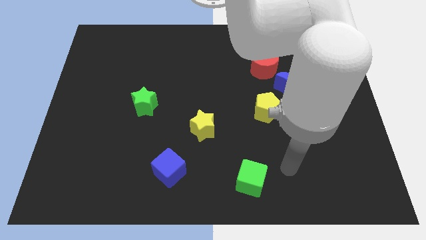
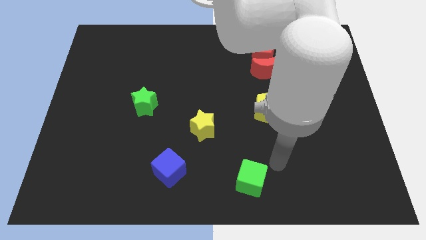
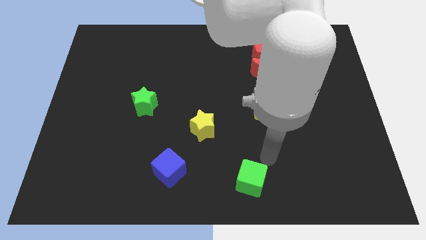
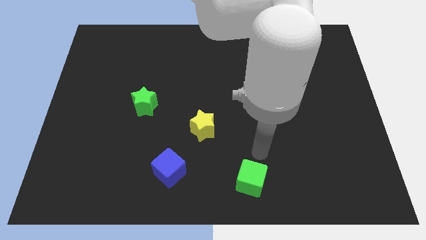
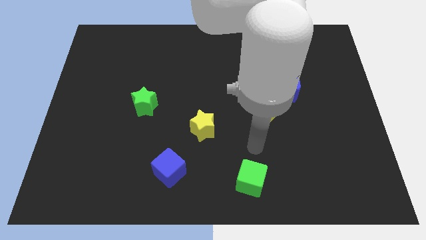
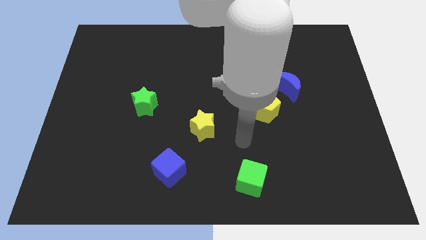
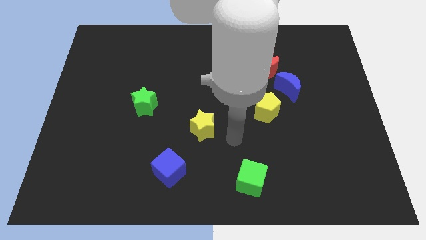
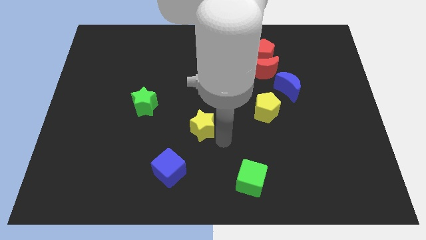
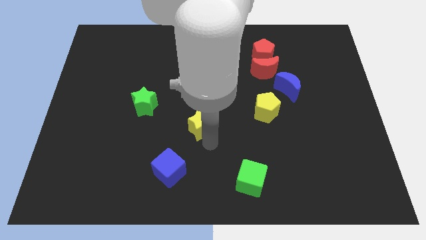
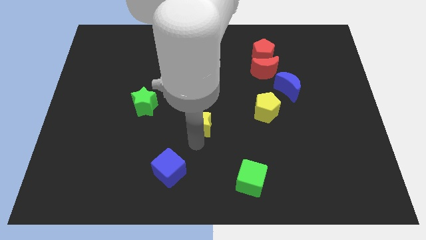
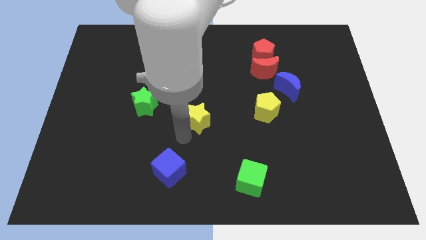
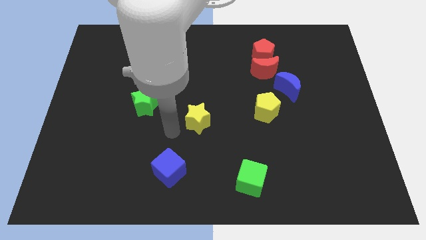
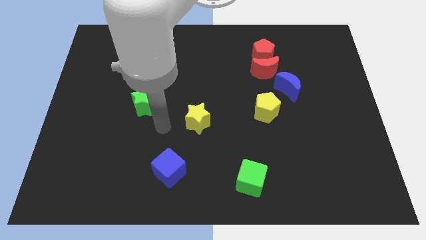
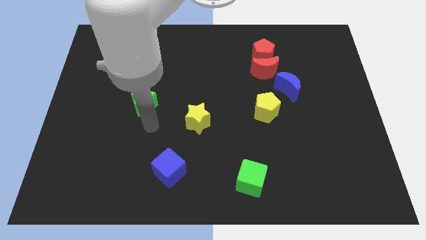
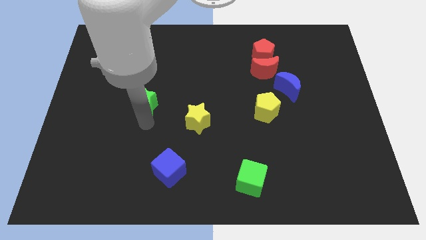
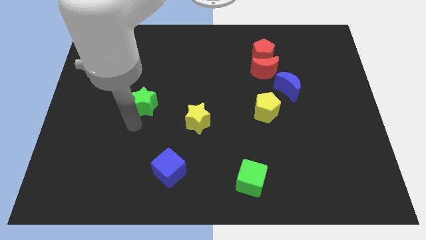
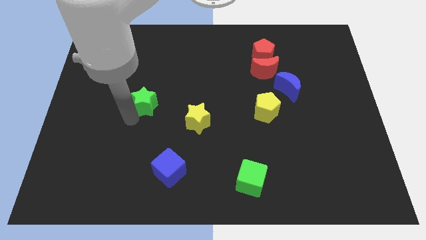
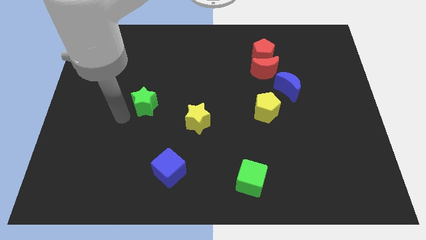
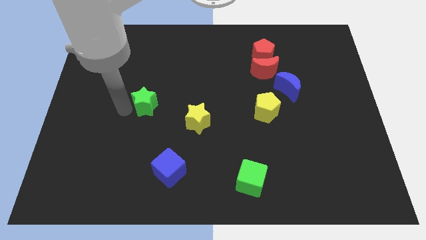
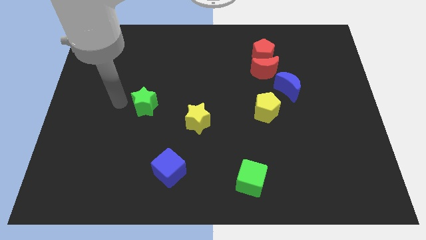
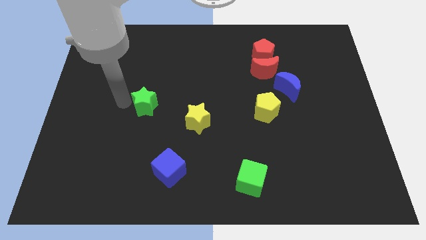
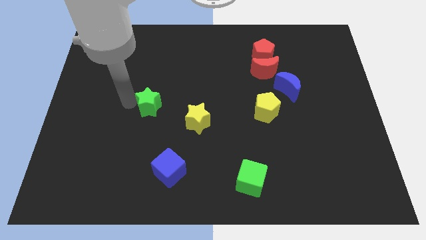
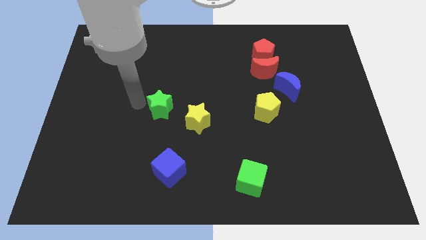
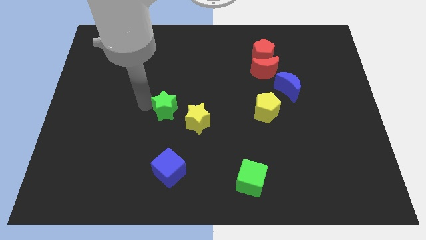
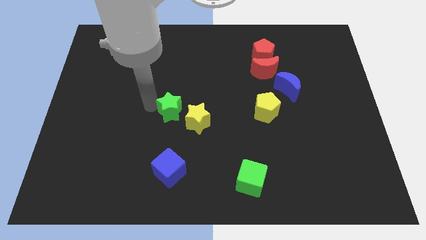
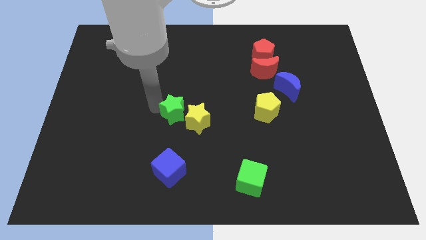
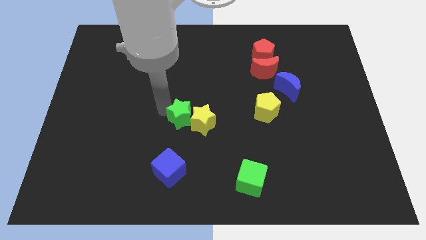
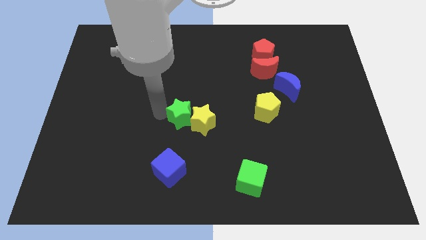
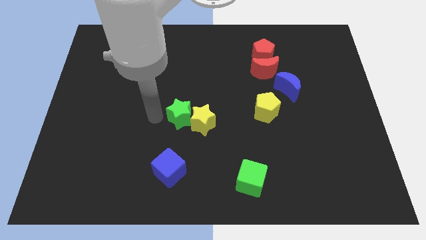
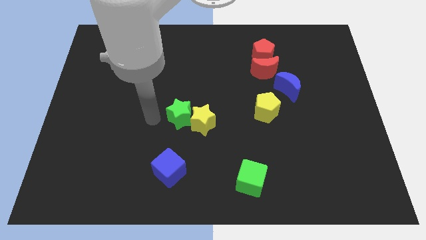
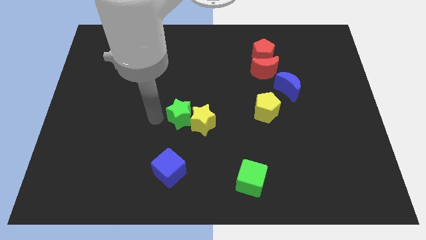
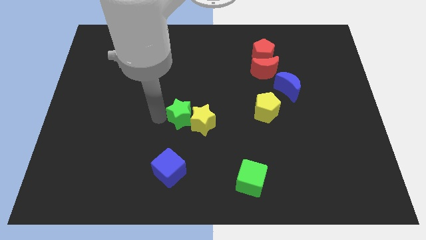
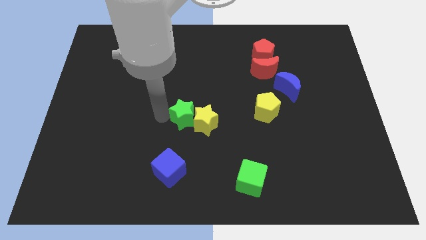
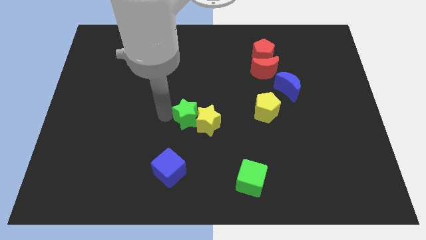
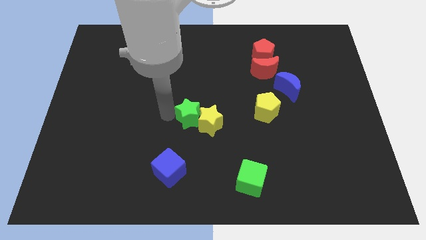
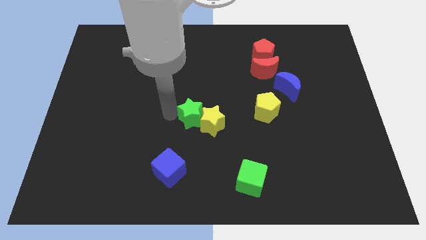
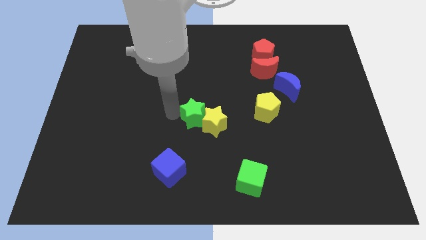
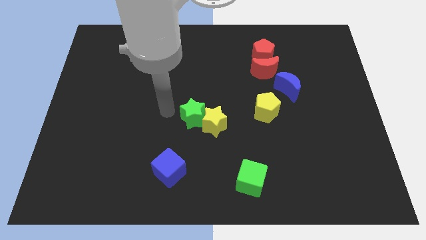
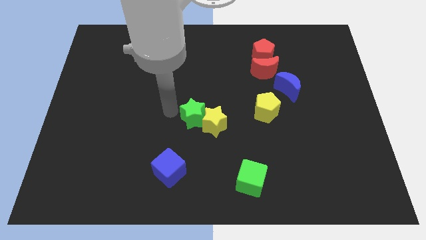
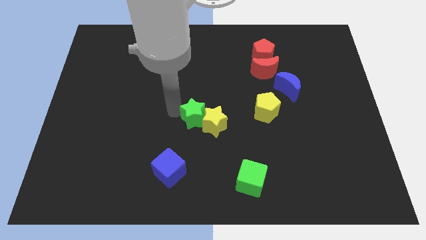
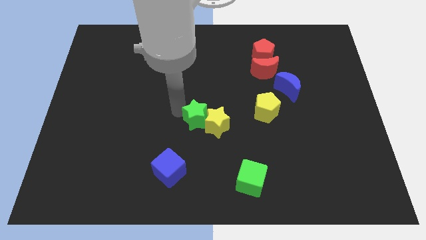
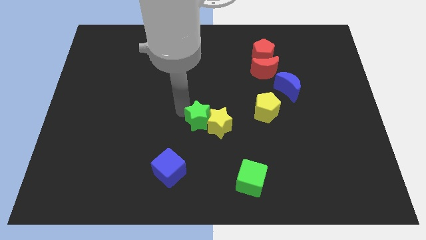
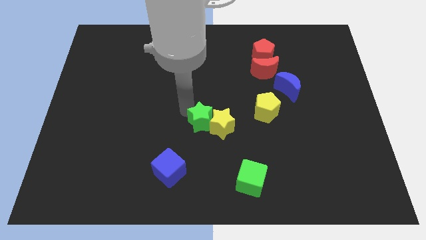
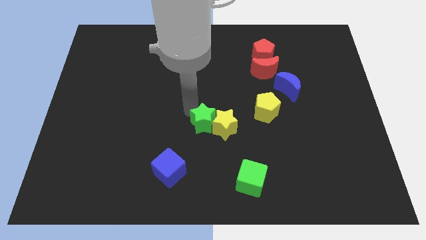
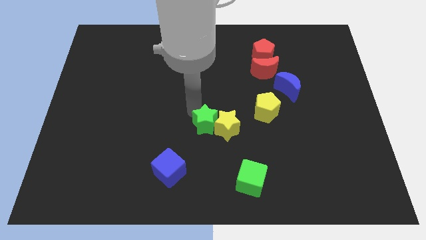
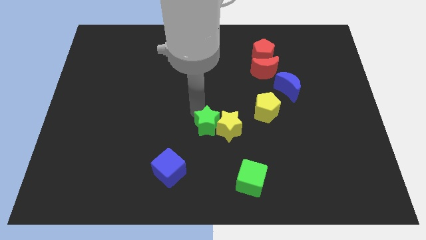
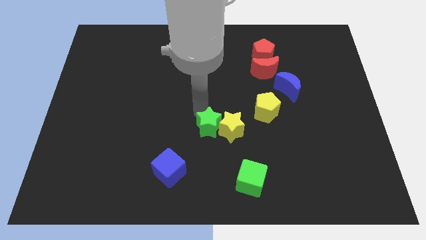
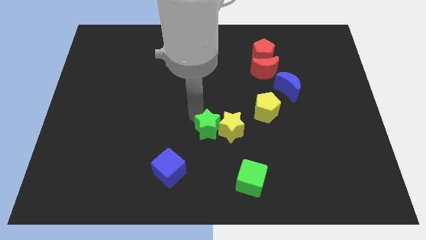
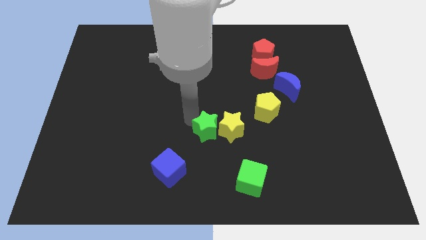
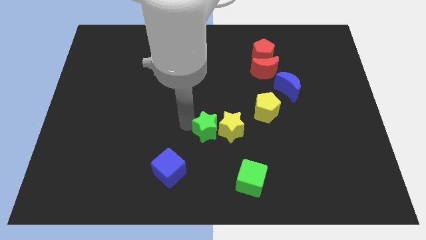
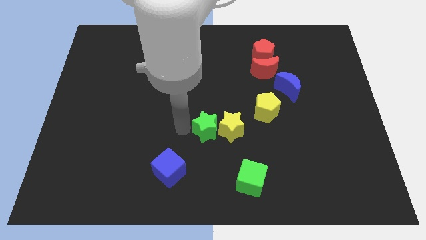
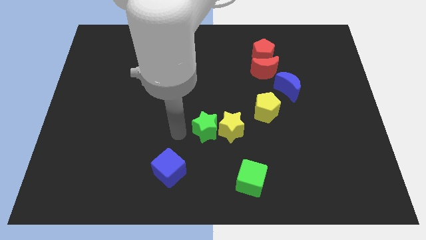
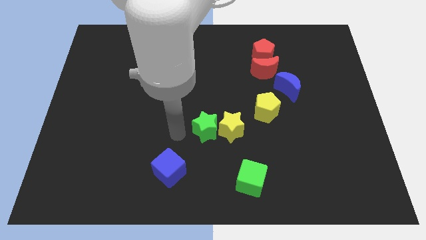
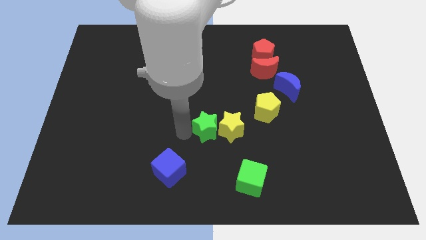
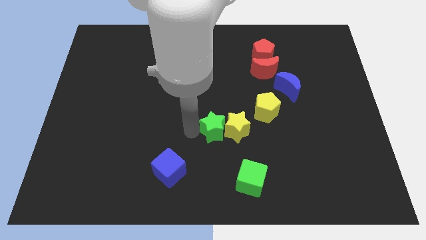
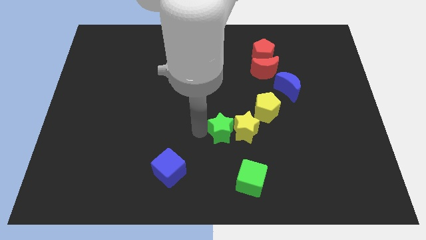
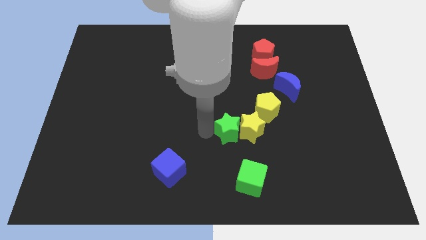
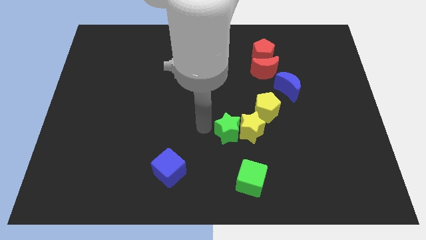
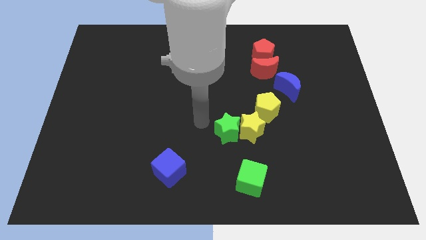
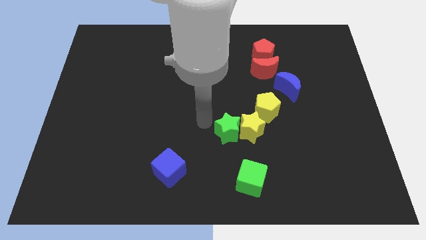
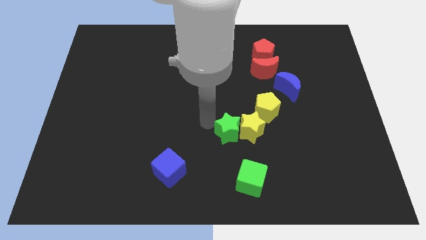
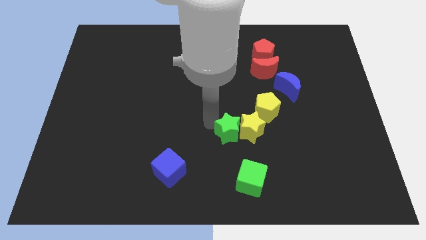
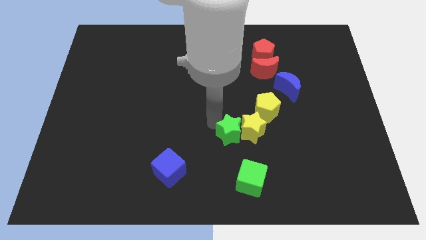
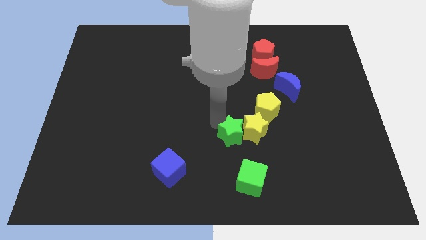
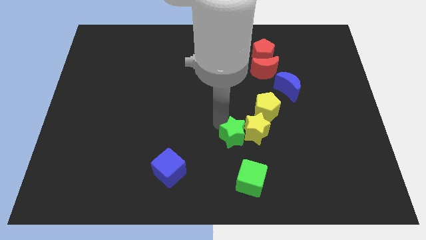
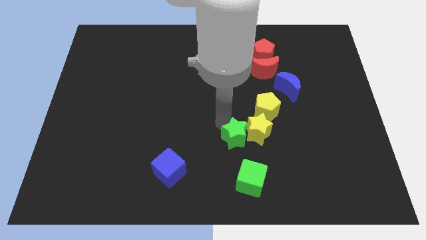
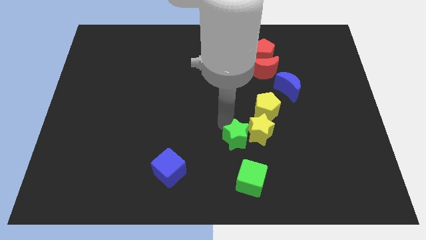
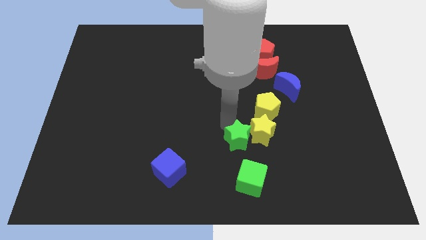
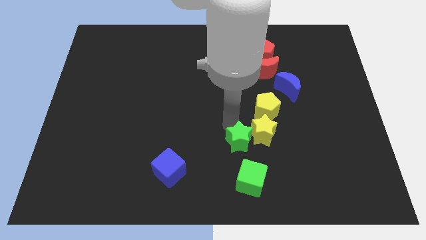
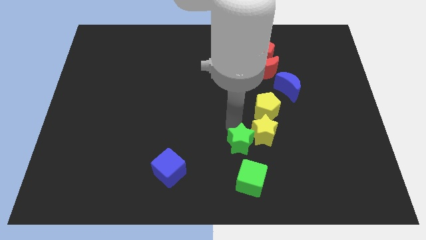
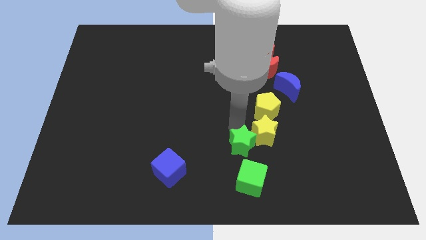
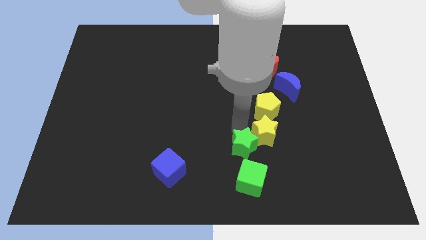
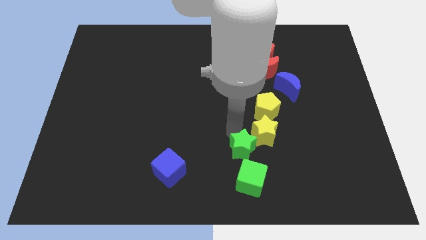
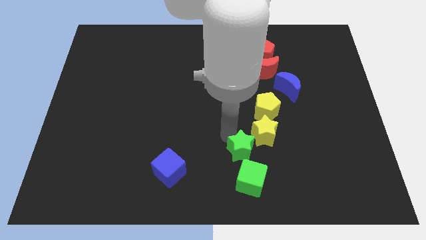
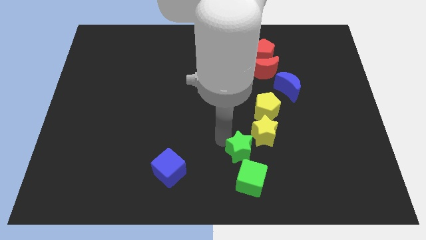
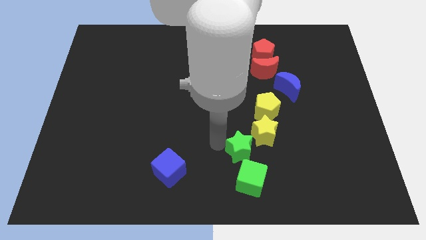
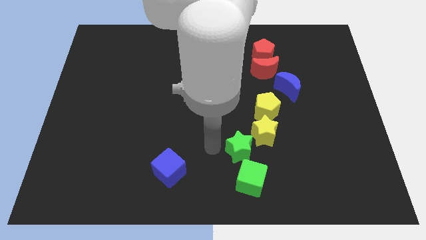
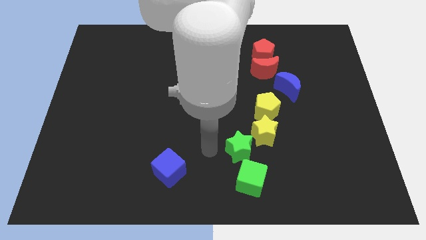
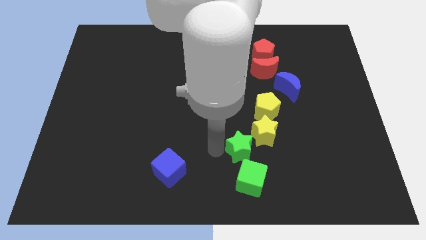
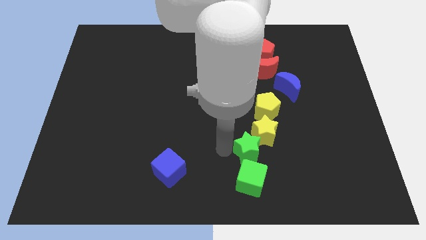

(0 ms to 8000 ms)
push the green star below the yellow pentagon
